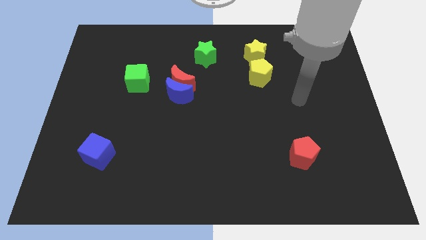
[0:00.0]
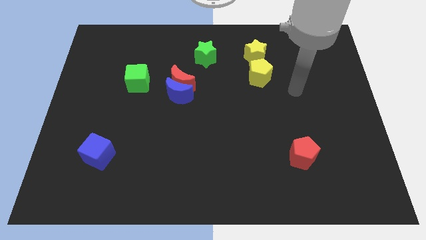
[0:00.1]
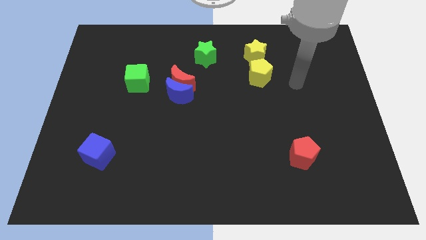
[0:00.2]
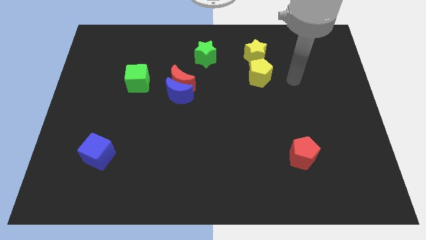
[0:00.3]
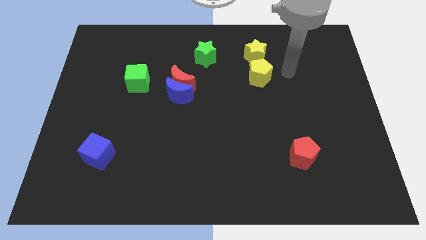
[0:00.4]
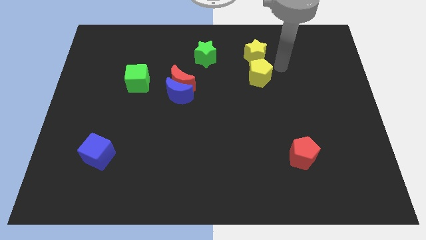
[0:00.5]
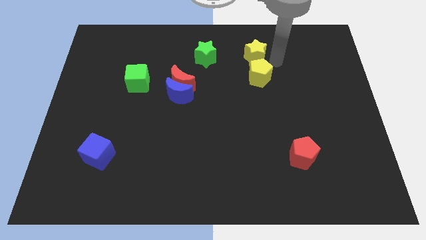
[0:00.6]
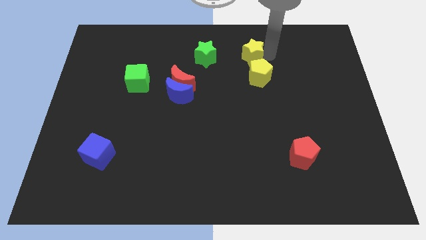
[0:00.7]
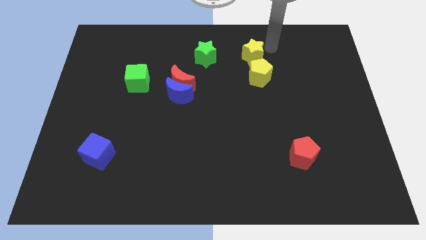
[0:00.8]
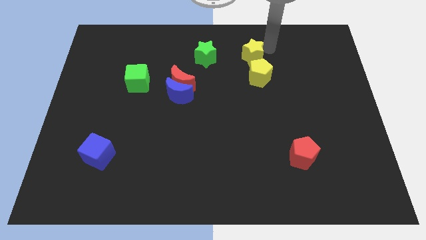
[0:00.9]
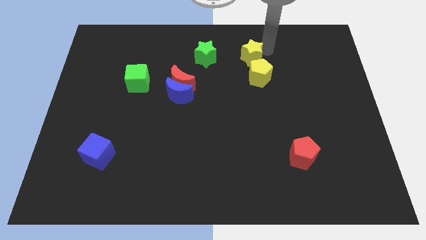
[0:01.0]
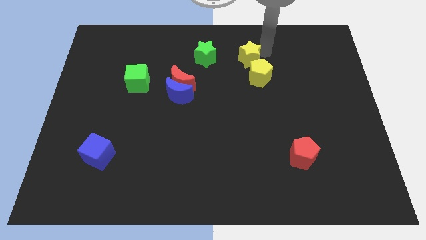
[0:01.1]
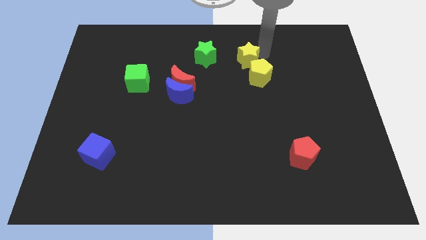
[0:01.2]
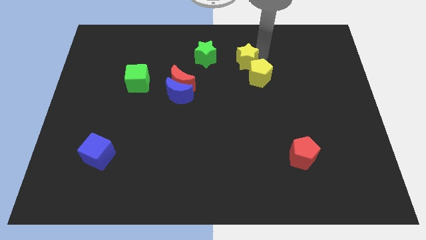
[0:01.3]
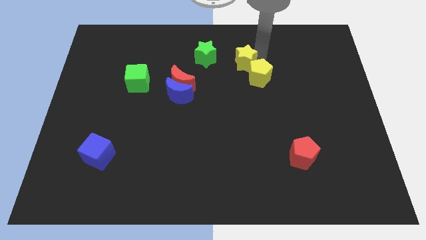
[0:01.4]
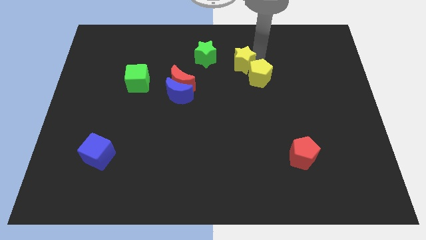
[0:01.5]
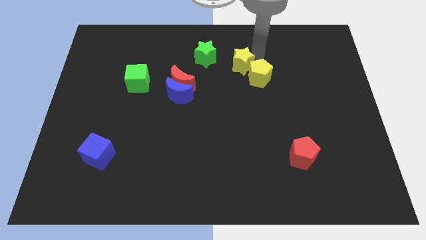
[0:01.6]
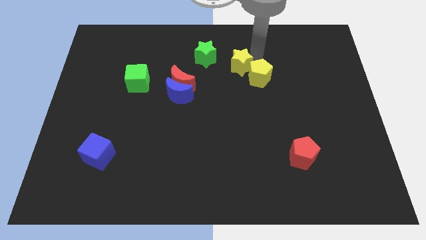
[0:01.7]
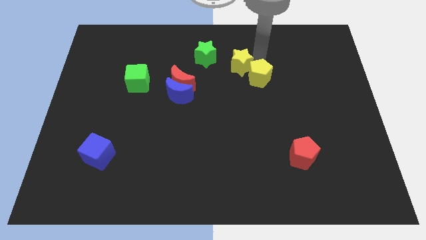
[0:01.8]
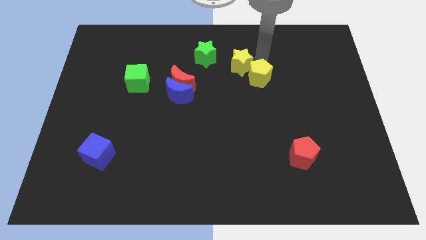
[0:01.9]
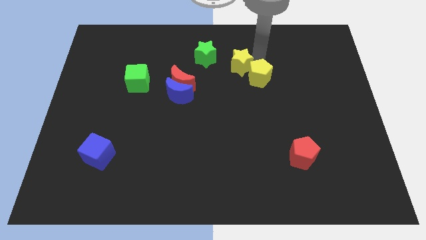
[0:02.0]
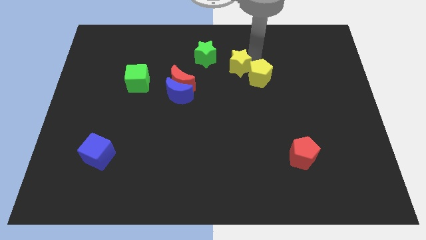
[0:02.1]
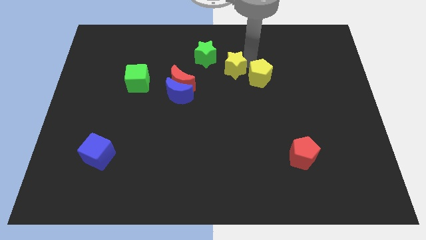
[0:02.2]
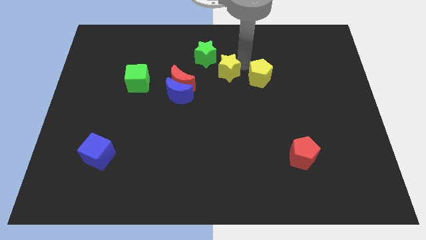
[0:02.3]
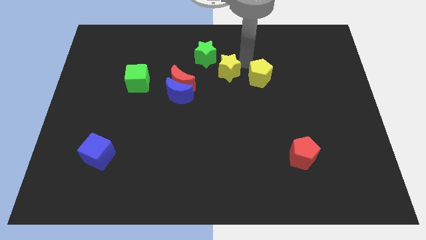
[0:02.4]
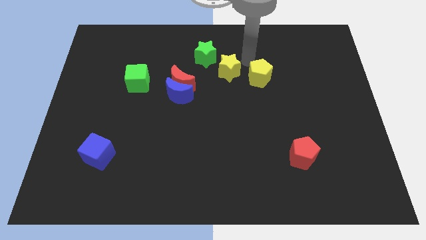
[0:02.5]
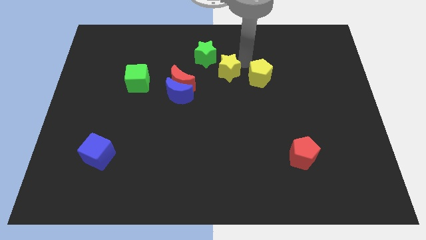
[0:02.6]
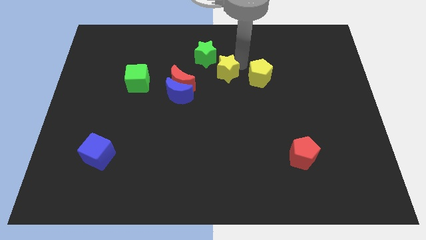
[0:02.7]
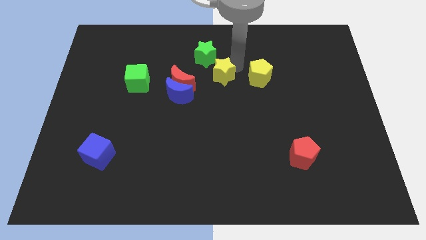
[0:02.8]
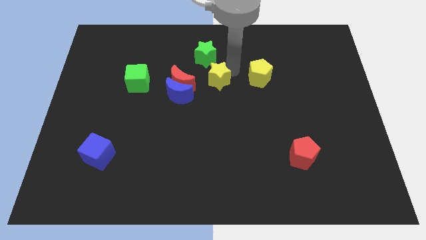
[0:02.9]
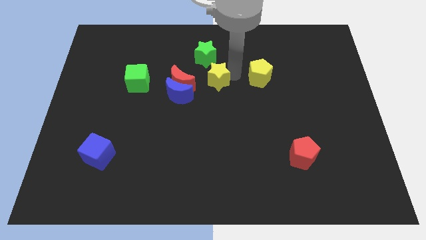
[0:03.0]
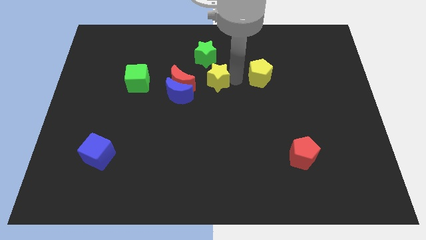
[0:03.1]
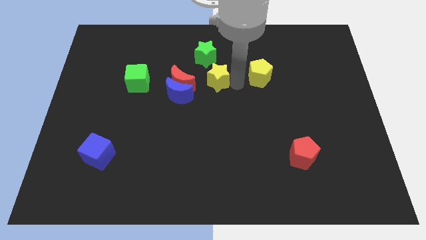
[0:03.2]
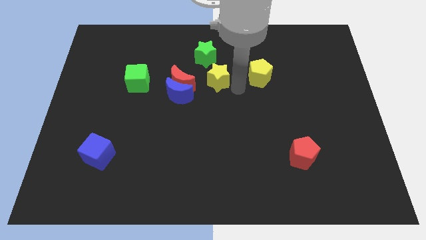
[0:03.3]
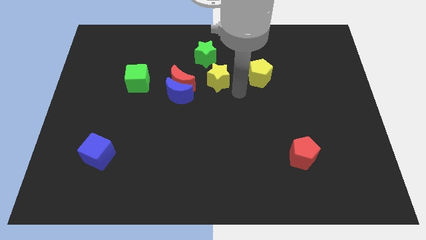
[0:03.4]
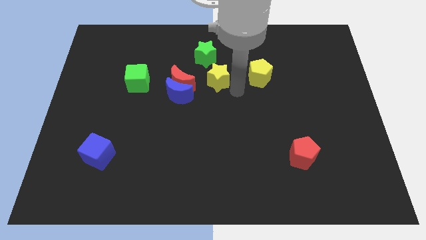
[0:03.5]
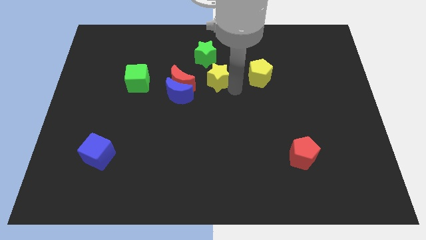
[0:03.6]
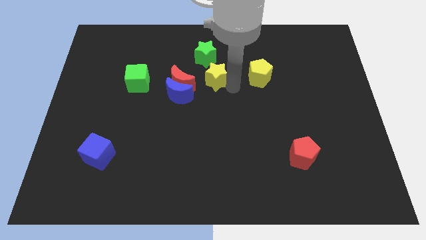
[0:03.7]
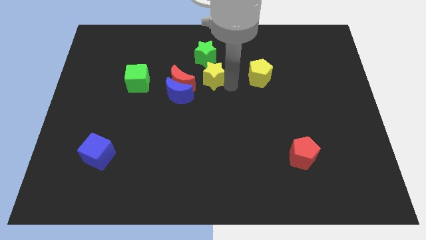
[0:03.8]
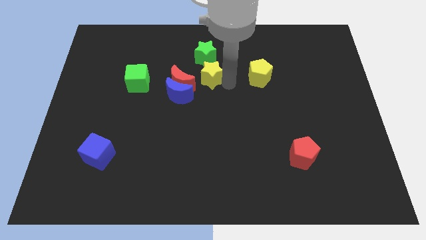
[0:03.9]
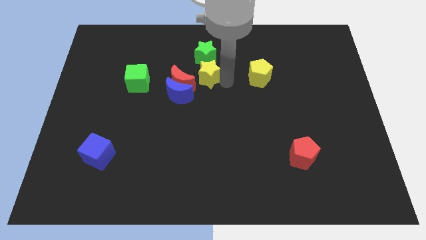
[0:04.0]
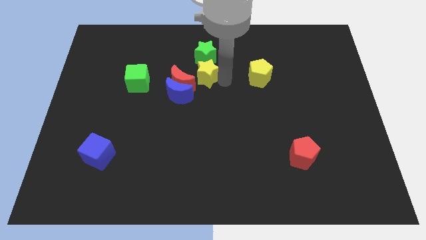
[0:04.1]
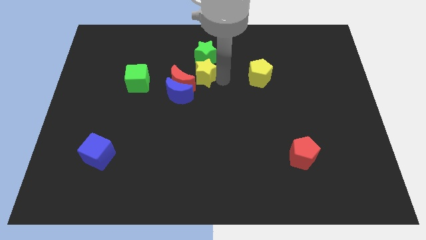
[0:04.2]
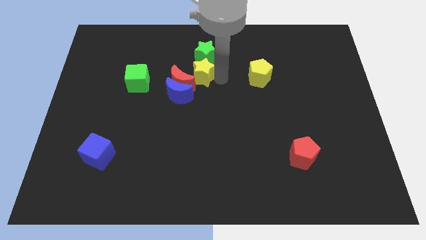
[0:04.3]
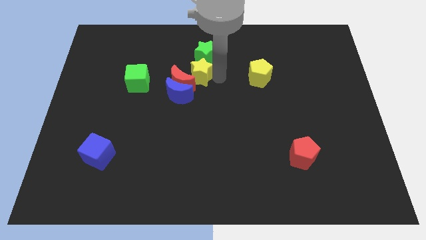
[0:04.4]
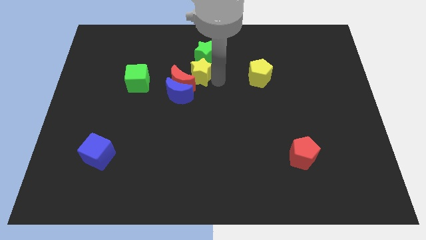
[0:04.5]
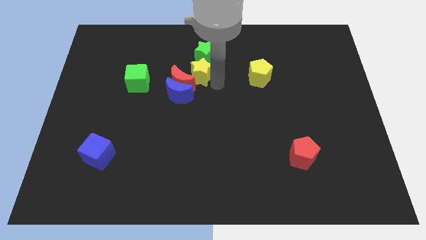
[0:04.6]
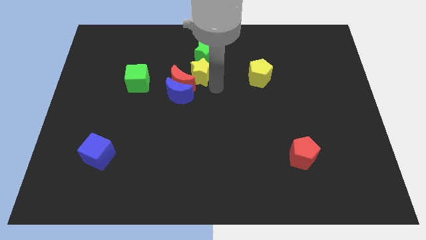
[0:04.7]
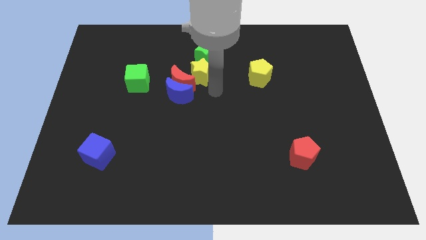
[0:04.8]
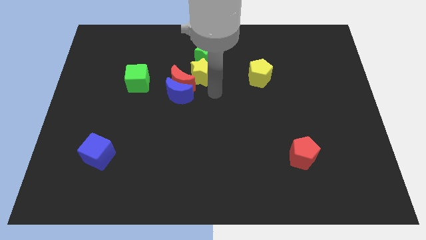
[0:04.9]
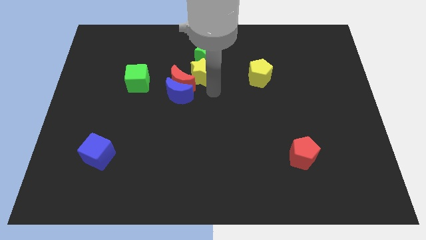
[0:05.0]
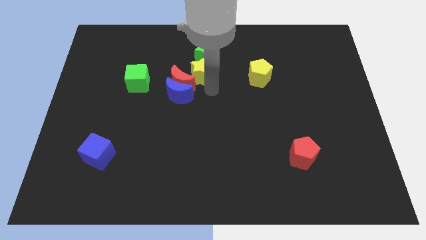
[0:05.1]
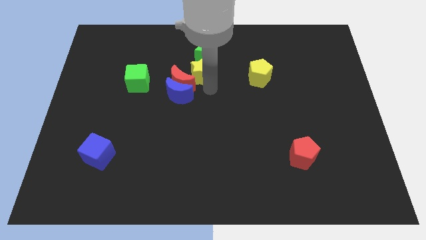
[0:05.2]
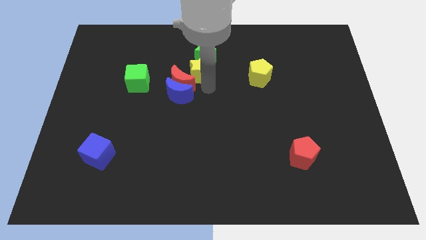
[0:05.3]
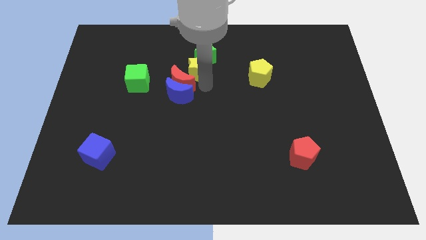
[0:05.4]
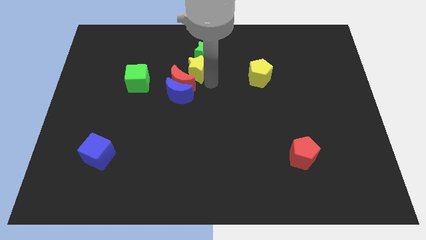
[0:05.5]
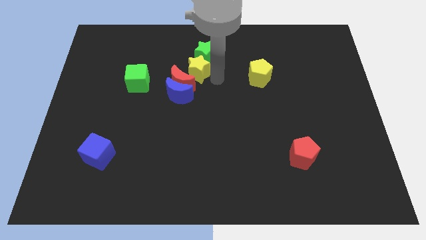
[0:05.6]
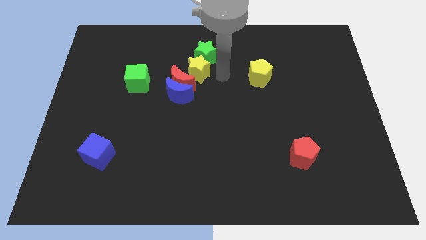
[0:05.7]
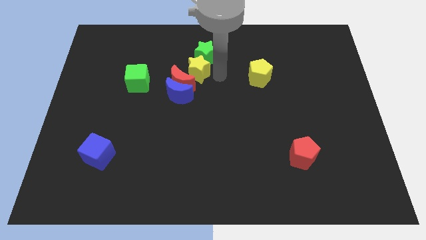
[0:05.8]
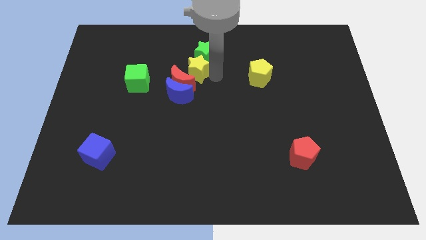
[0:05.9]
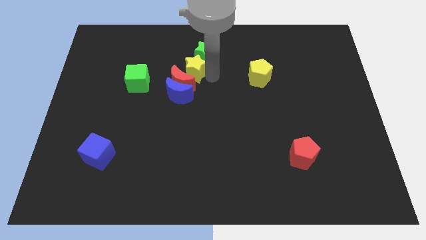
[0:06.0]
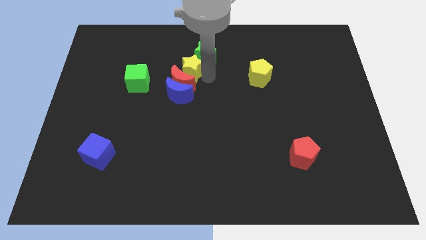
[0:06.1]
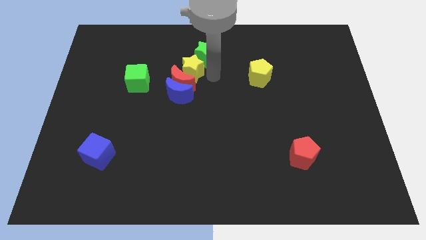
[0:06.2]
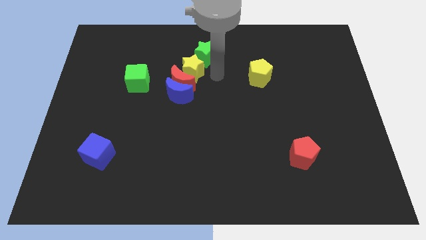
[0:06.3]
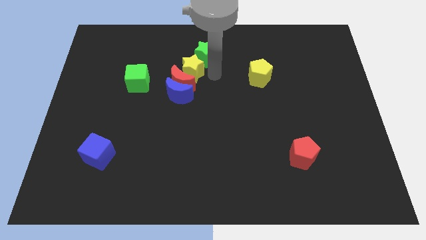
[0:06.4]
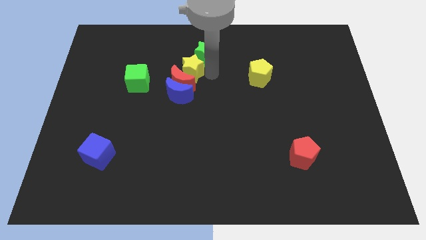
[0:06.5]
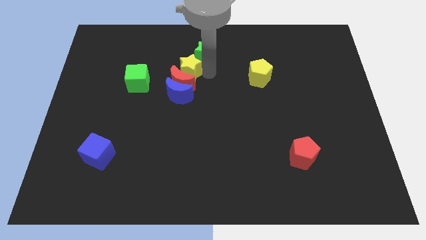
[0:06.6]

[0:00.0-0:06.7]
push the yellow star to the top left side of the red moon

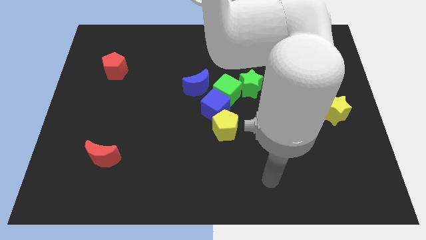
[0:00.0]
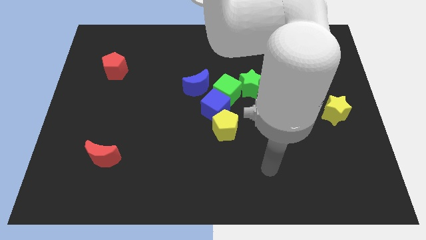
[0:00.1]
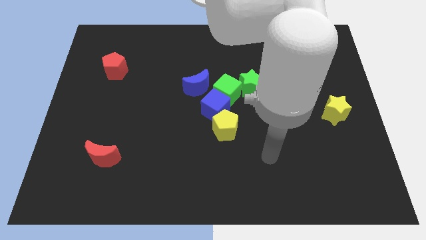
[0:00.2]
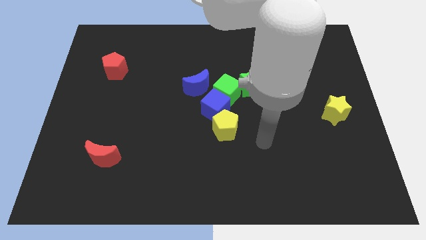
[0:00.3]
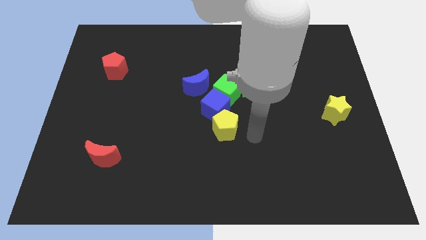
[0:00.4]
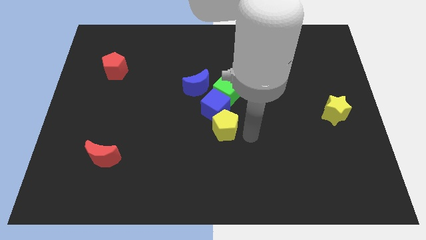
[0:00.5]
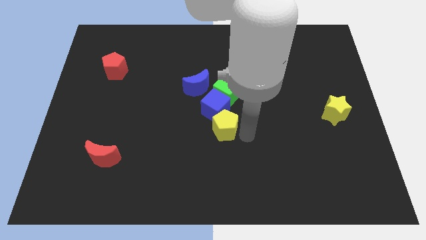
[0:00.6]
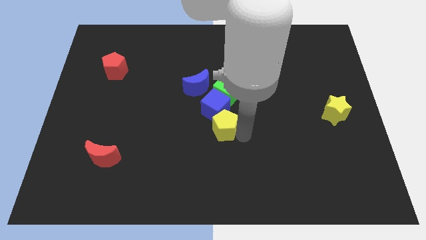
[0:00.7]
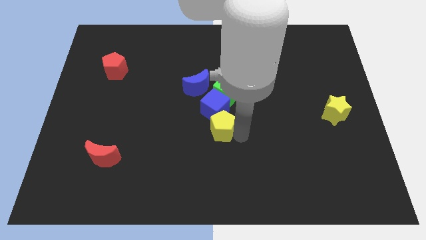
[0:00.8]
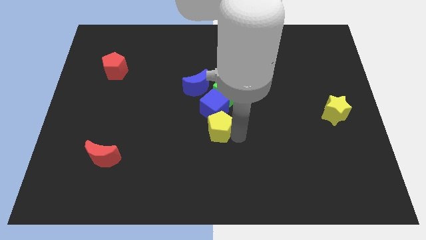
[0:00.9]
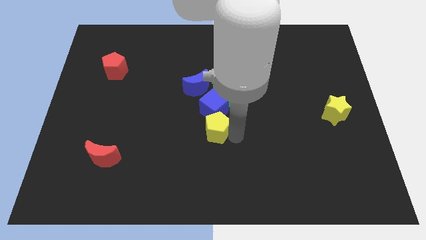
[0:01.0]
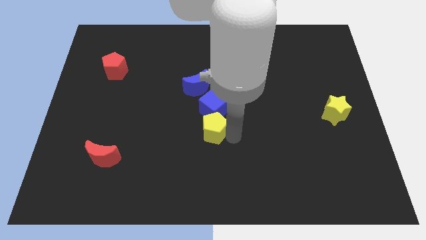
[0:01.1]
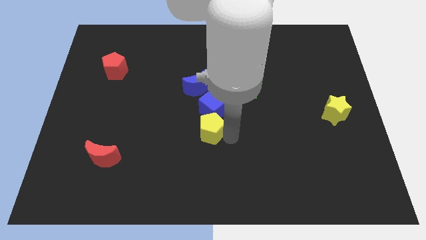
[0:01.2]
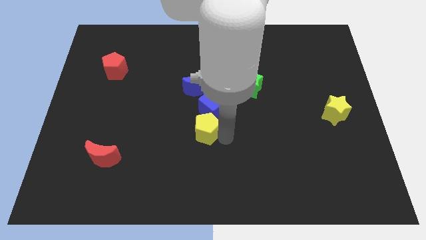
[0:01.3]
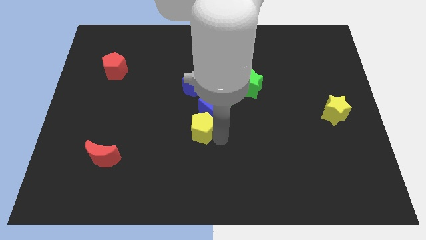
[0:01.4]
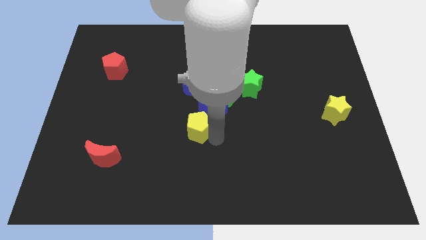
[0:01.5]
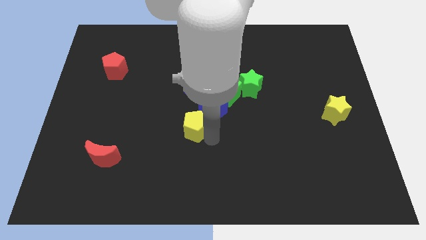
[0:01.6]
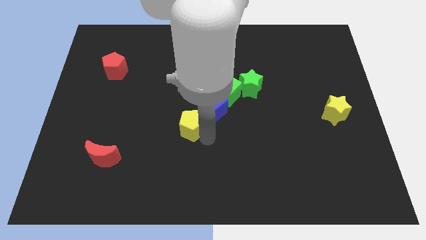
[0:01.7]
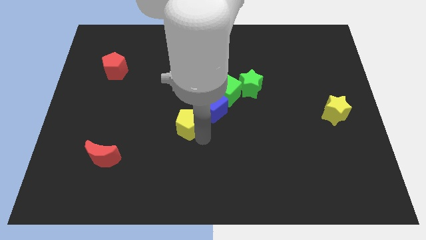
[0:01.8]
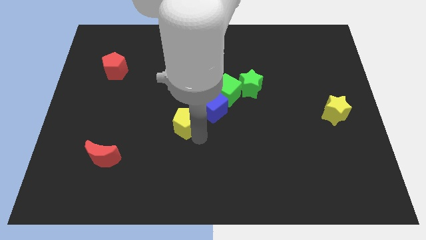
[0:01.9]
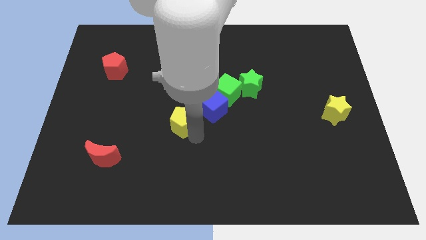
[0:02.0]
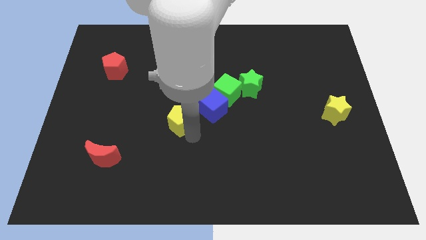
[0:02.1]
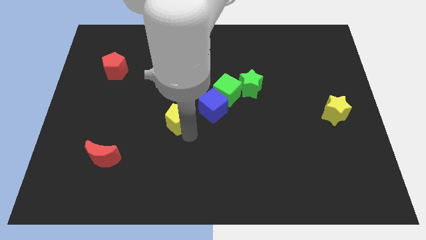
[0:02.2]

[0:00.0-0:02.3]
put the yellow pentagon to the bottom left side of the blue moon
